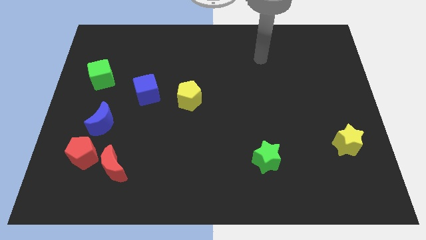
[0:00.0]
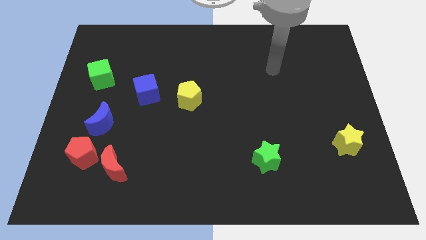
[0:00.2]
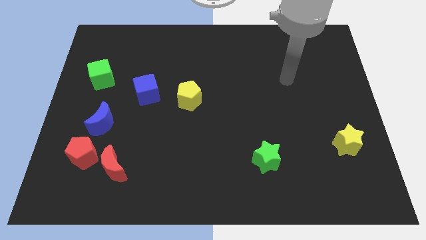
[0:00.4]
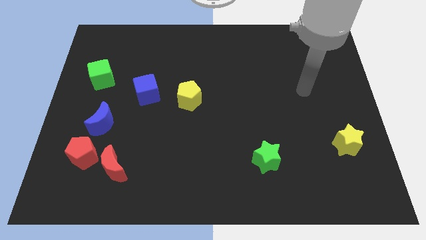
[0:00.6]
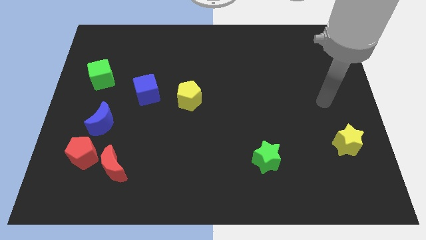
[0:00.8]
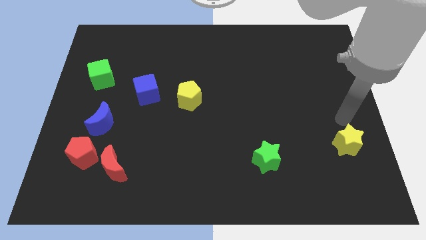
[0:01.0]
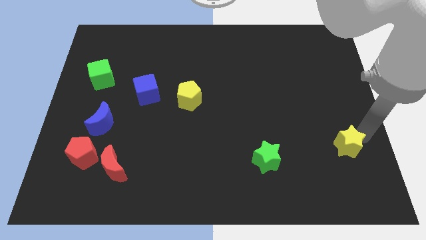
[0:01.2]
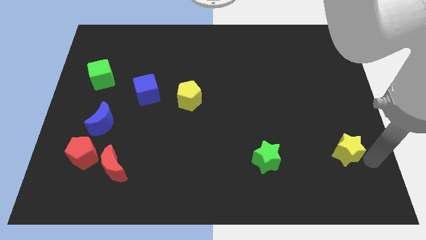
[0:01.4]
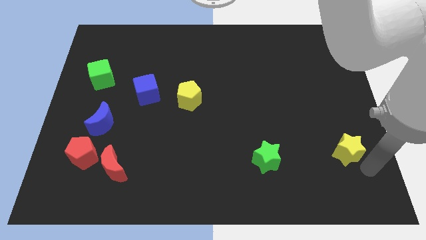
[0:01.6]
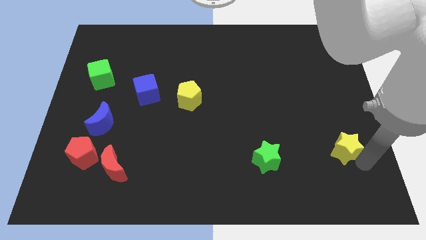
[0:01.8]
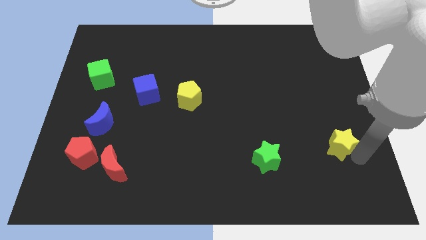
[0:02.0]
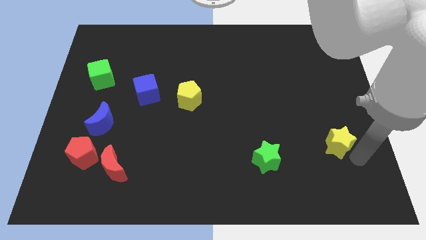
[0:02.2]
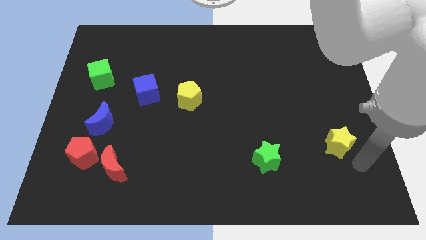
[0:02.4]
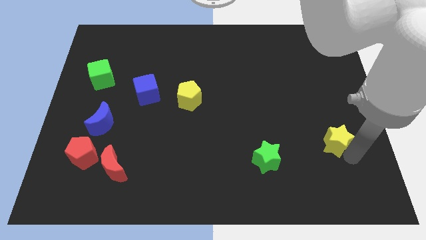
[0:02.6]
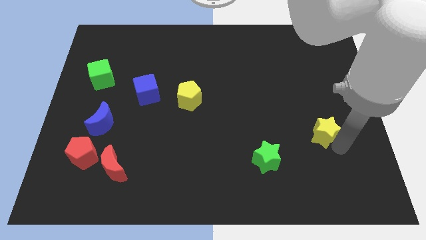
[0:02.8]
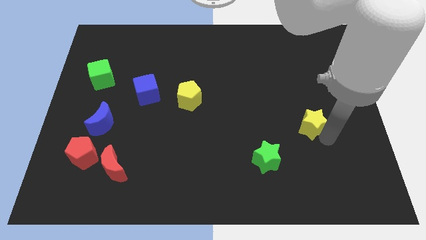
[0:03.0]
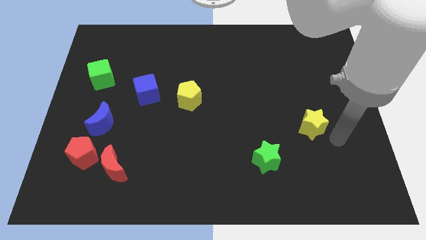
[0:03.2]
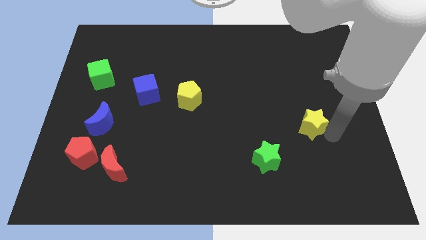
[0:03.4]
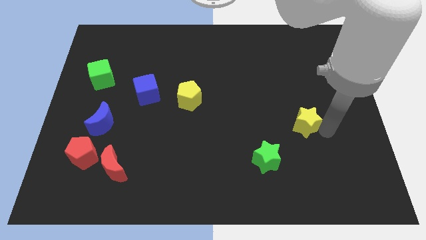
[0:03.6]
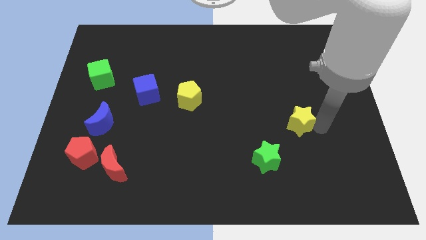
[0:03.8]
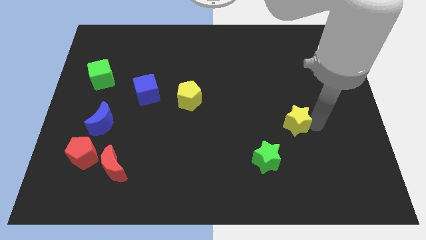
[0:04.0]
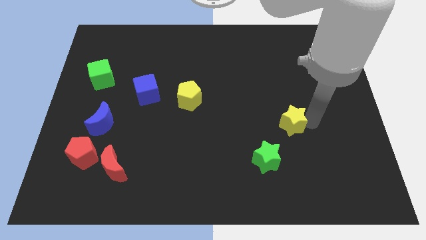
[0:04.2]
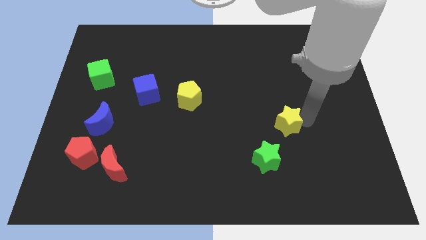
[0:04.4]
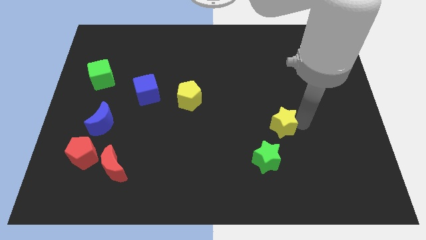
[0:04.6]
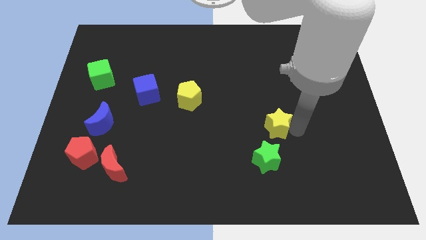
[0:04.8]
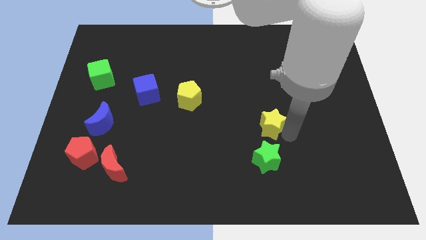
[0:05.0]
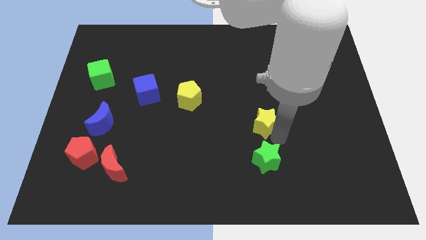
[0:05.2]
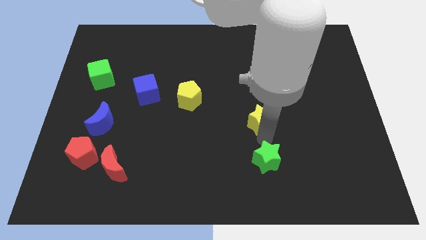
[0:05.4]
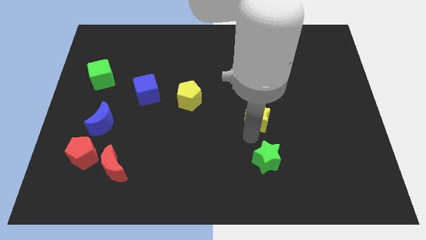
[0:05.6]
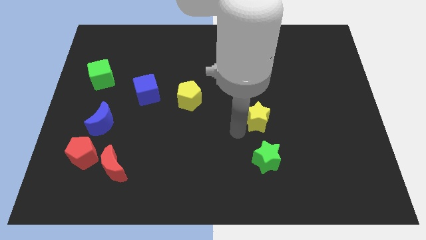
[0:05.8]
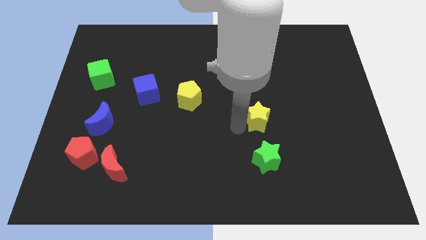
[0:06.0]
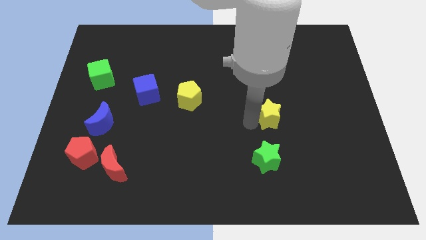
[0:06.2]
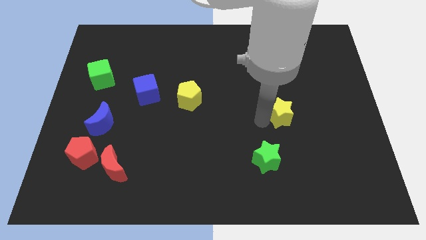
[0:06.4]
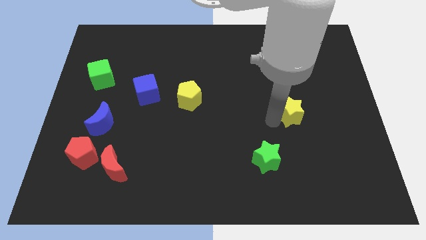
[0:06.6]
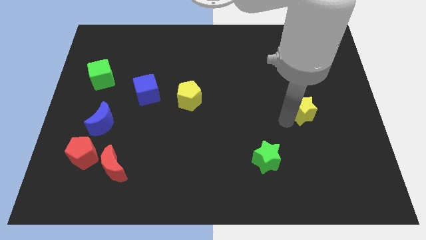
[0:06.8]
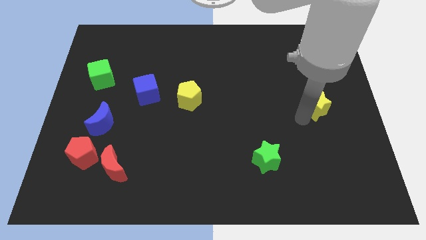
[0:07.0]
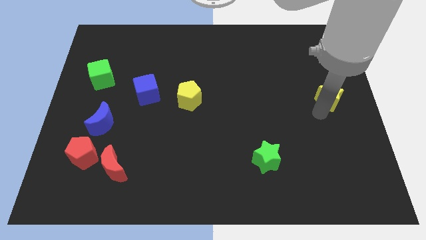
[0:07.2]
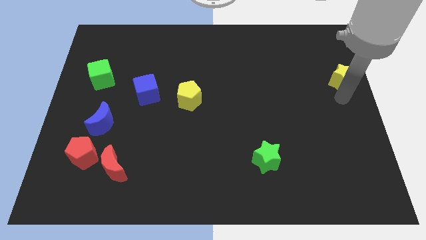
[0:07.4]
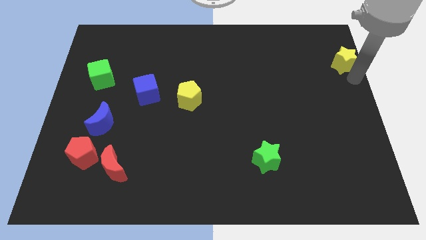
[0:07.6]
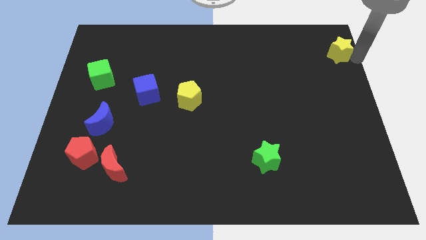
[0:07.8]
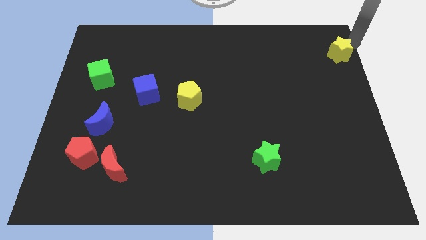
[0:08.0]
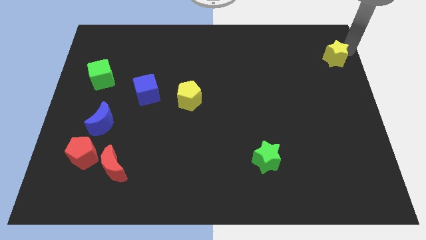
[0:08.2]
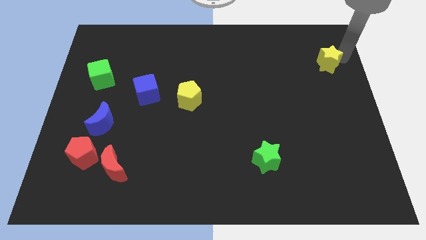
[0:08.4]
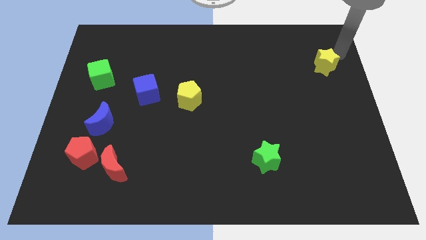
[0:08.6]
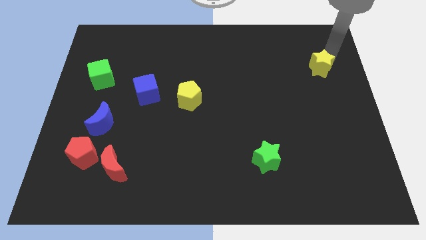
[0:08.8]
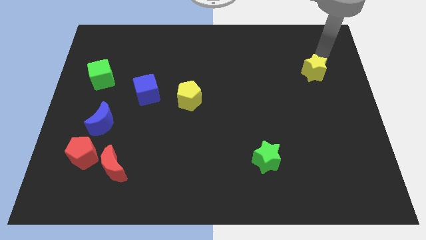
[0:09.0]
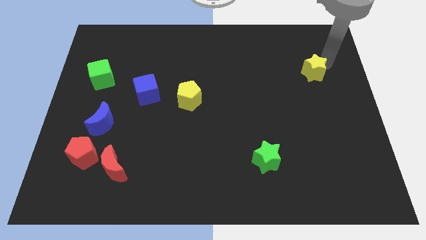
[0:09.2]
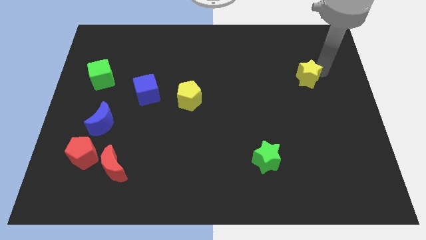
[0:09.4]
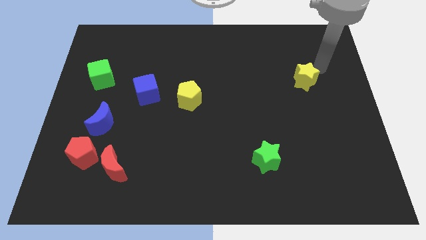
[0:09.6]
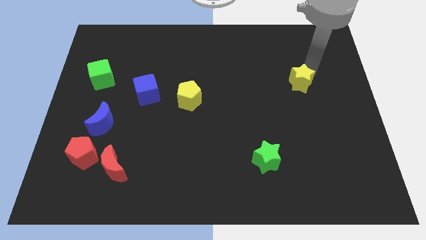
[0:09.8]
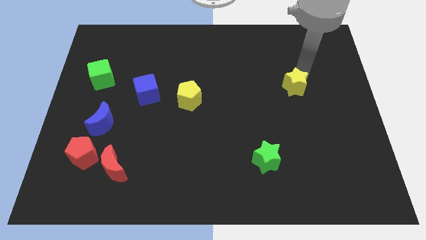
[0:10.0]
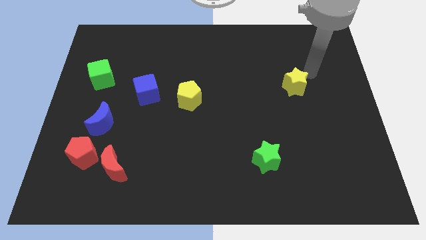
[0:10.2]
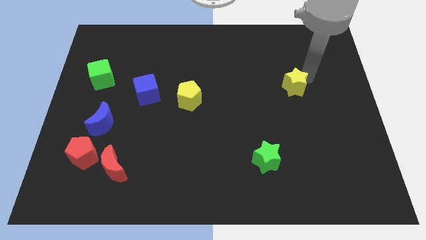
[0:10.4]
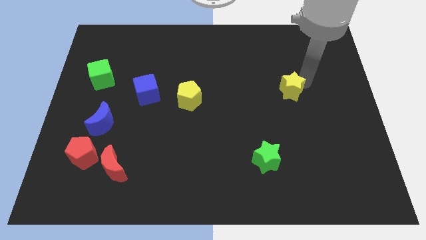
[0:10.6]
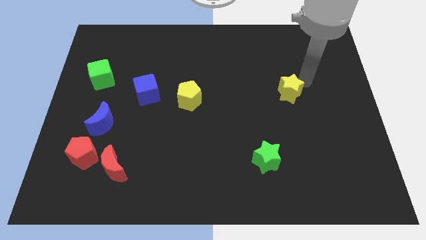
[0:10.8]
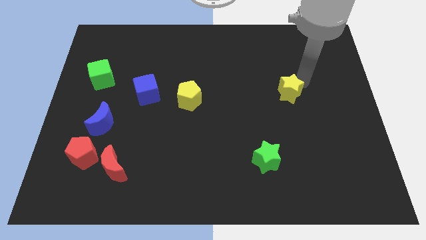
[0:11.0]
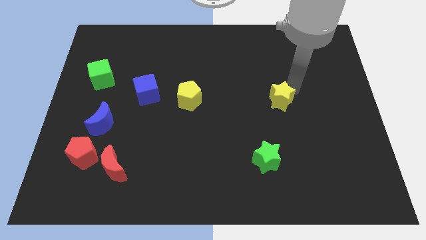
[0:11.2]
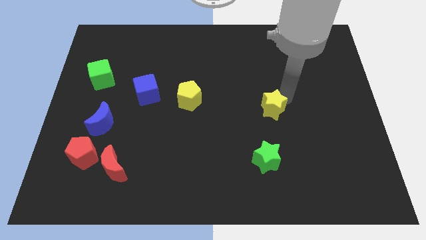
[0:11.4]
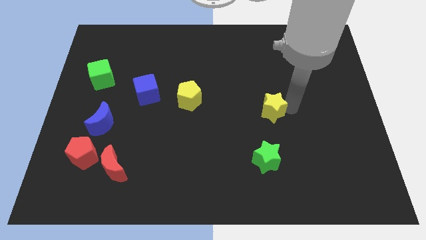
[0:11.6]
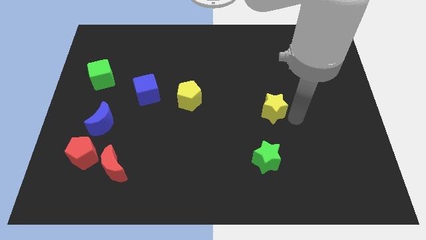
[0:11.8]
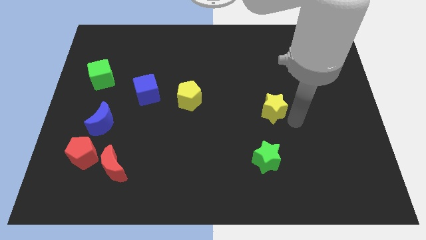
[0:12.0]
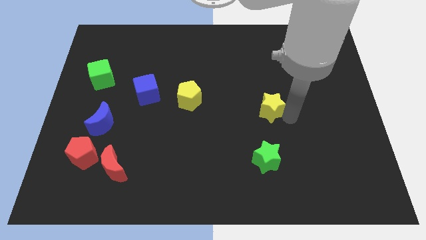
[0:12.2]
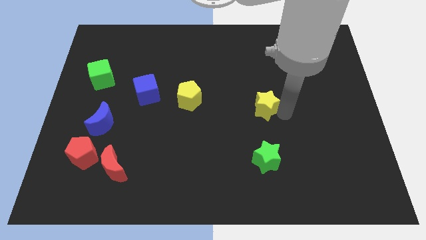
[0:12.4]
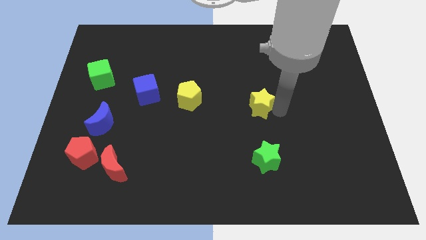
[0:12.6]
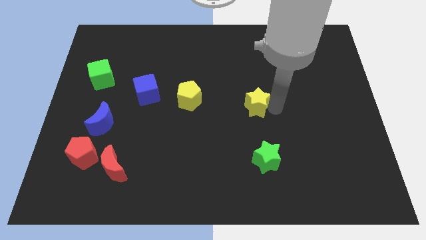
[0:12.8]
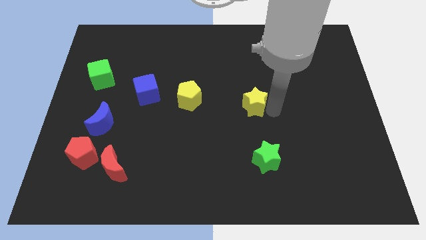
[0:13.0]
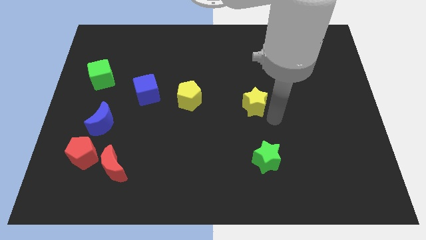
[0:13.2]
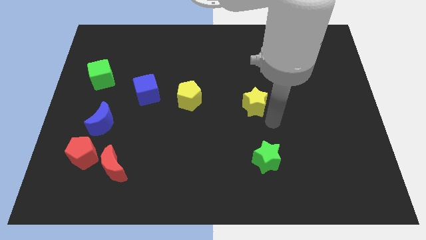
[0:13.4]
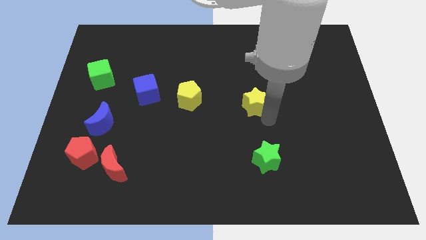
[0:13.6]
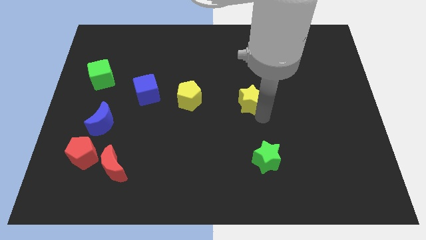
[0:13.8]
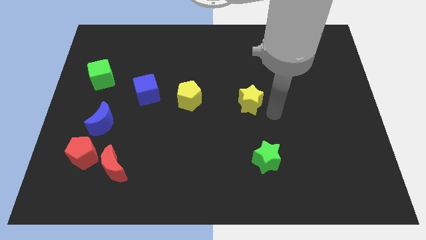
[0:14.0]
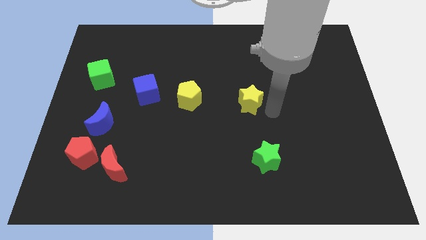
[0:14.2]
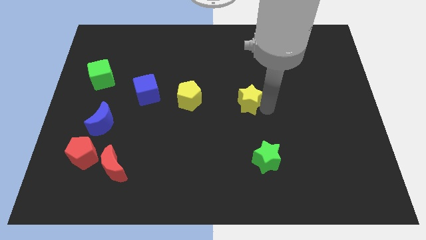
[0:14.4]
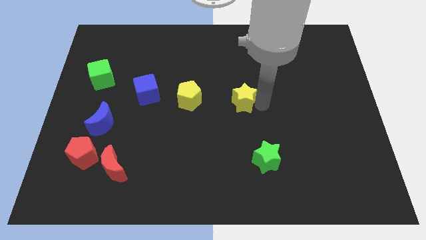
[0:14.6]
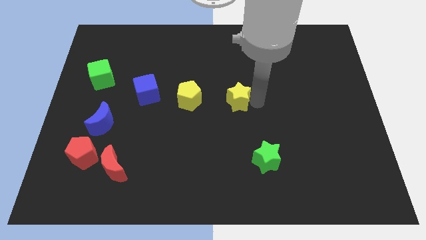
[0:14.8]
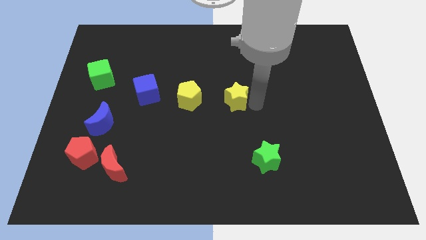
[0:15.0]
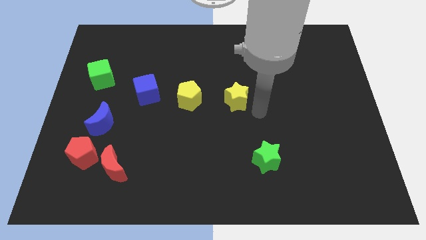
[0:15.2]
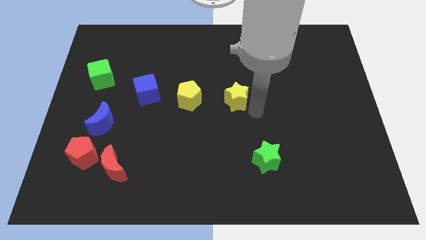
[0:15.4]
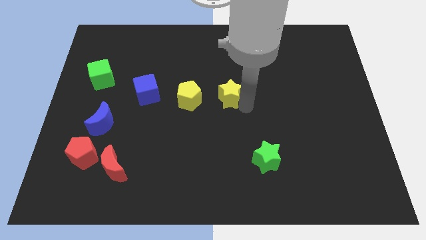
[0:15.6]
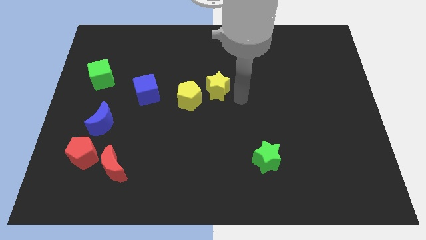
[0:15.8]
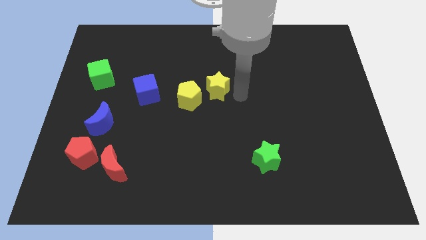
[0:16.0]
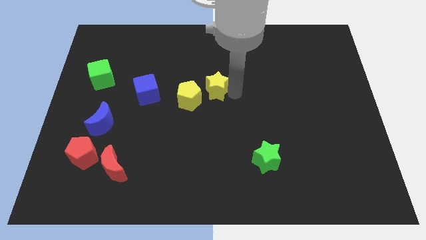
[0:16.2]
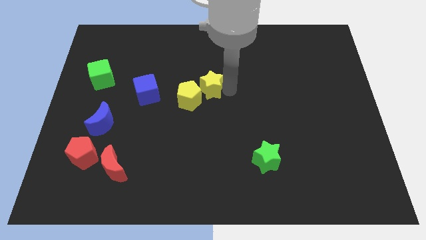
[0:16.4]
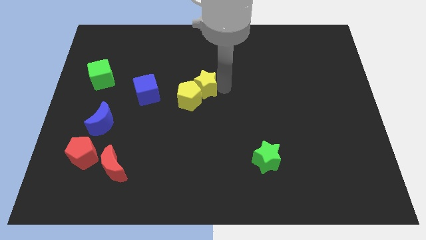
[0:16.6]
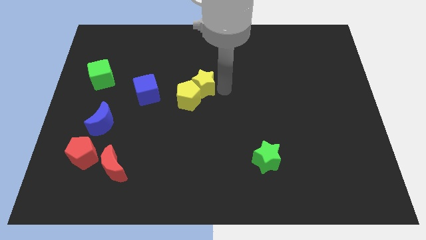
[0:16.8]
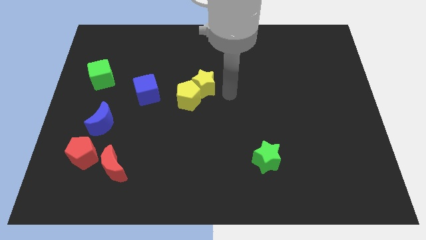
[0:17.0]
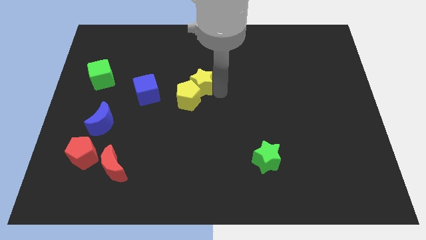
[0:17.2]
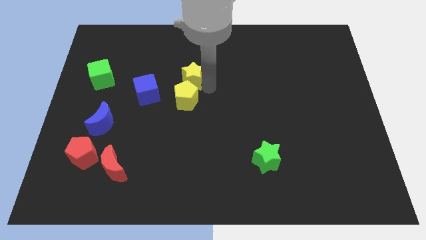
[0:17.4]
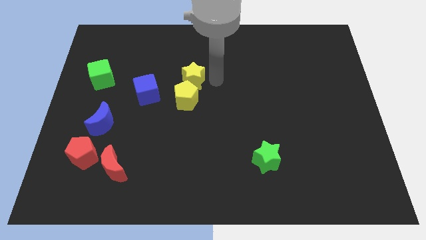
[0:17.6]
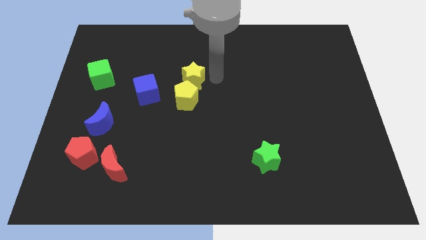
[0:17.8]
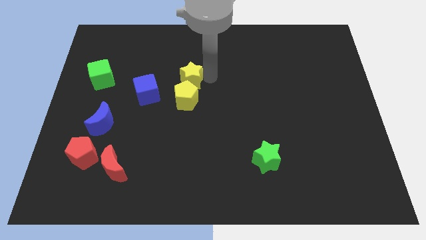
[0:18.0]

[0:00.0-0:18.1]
slide the yellow star diagonally up and to the left of the yellow pentagon
